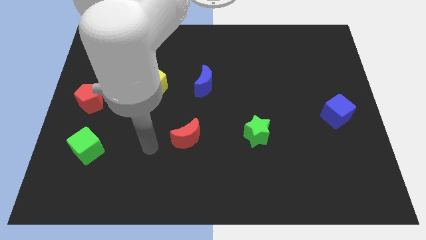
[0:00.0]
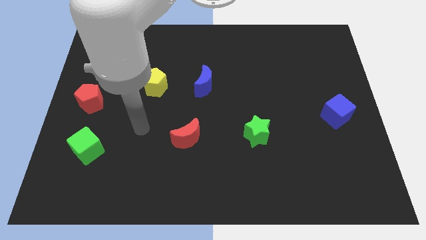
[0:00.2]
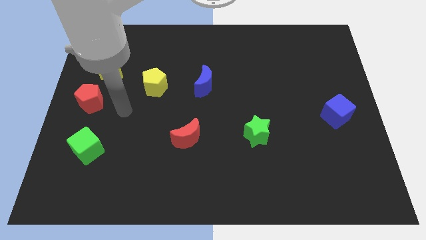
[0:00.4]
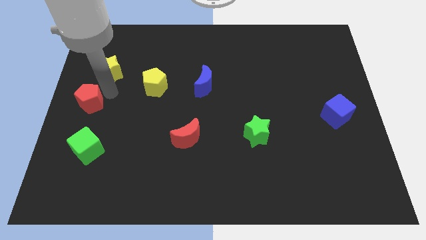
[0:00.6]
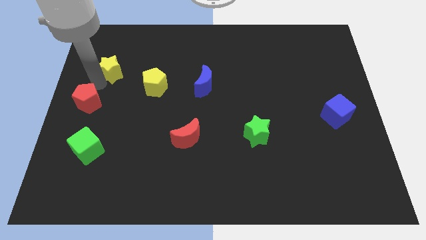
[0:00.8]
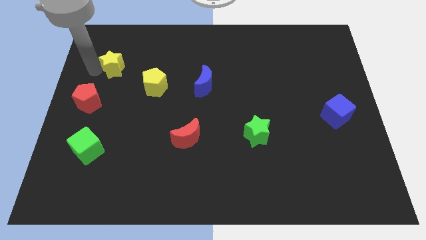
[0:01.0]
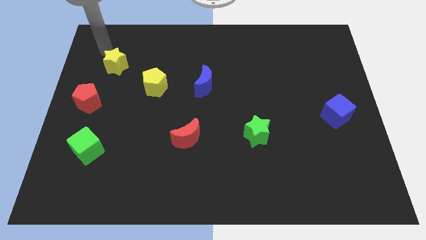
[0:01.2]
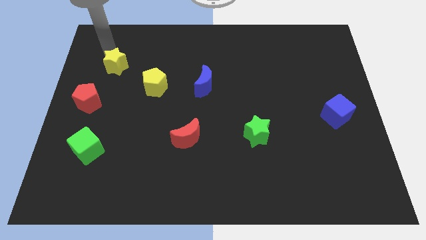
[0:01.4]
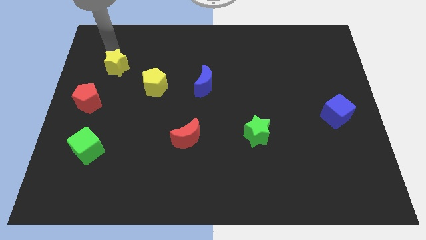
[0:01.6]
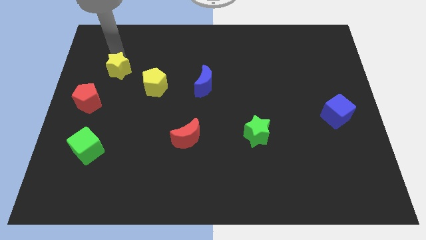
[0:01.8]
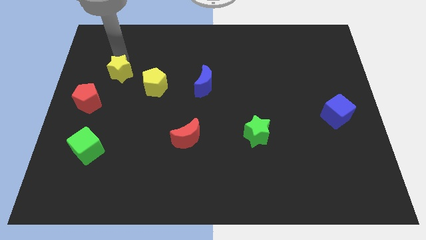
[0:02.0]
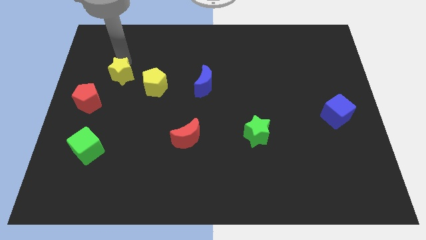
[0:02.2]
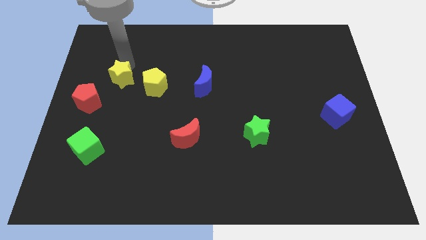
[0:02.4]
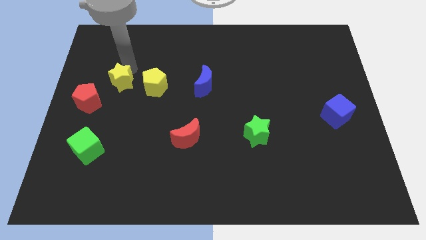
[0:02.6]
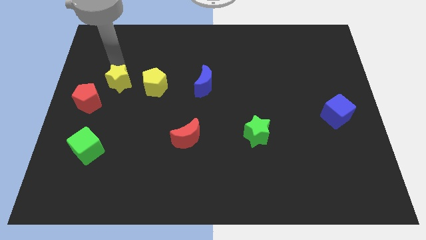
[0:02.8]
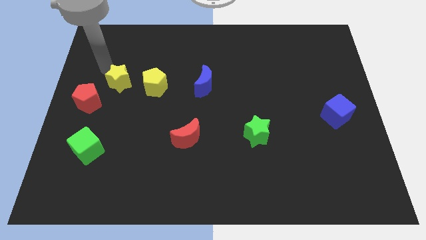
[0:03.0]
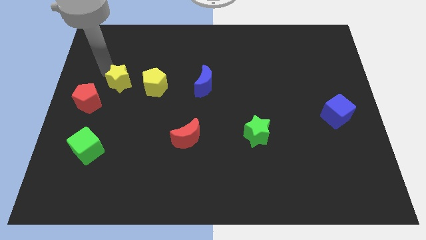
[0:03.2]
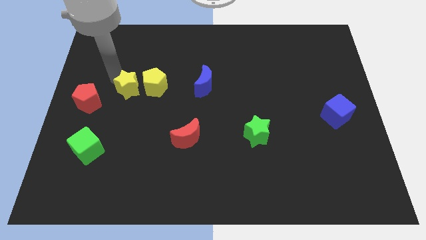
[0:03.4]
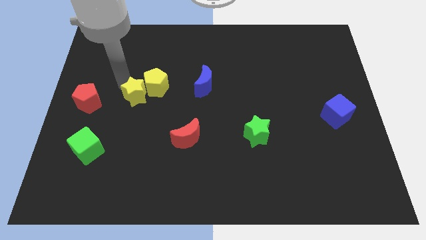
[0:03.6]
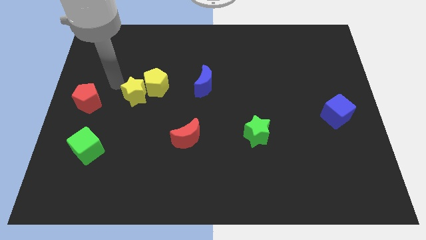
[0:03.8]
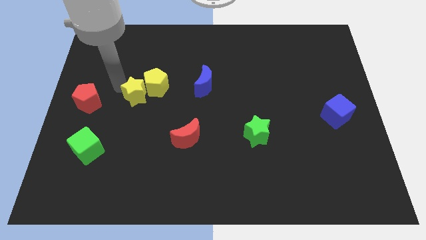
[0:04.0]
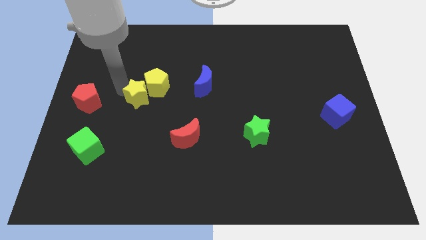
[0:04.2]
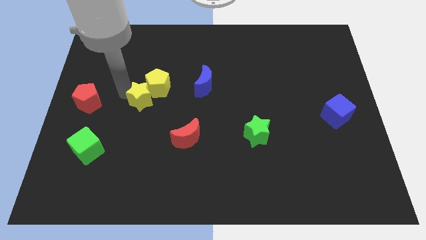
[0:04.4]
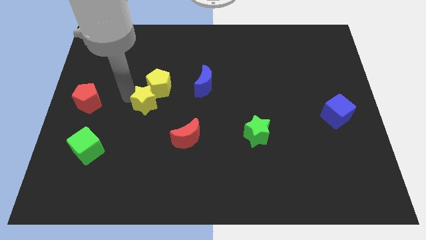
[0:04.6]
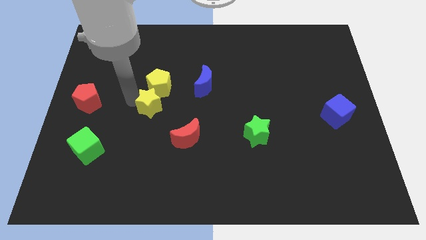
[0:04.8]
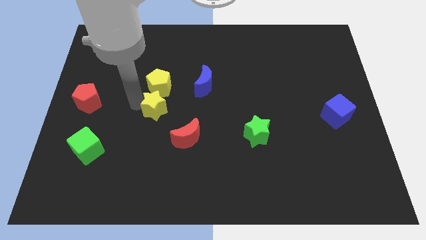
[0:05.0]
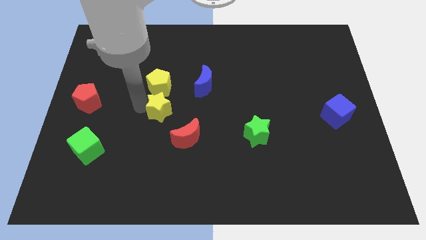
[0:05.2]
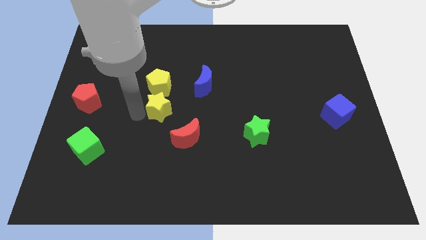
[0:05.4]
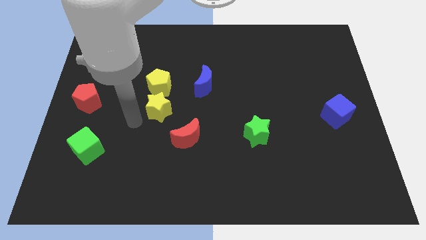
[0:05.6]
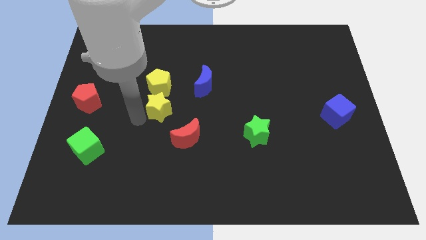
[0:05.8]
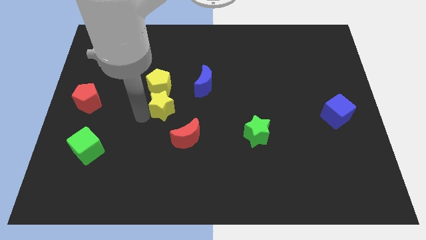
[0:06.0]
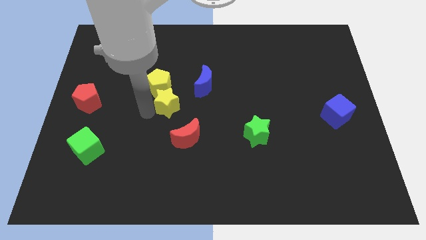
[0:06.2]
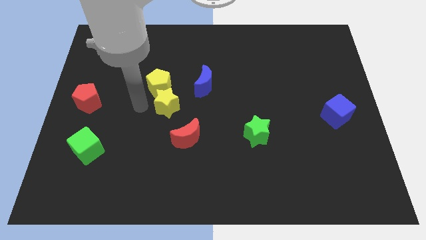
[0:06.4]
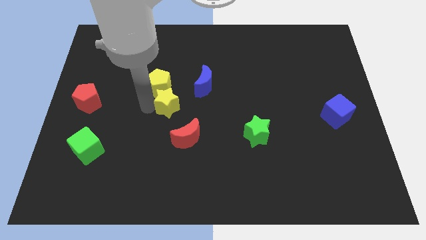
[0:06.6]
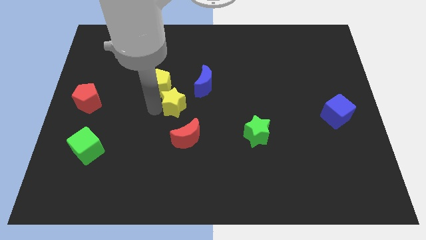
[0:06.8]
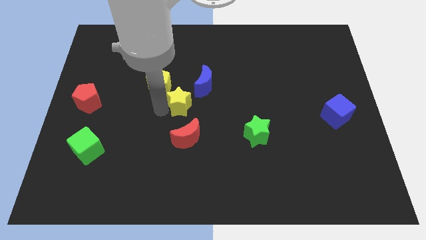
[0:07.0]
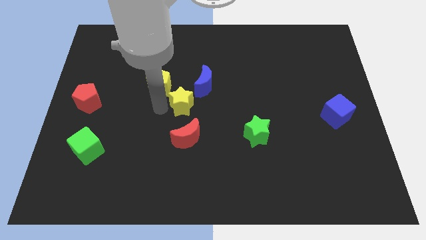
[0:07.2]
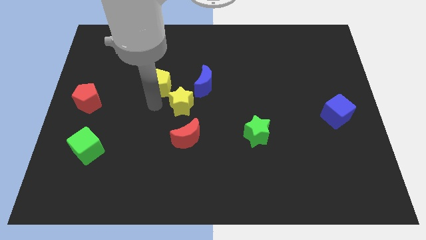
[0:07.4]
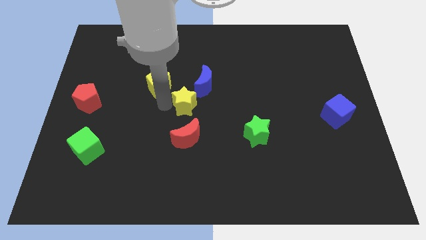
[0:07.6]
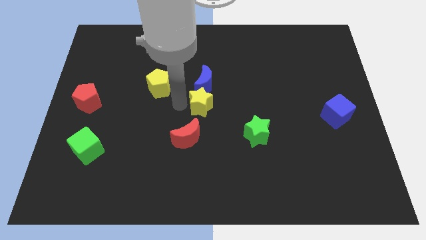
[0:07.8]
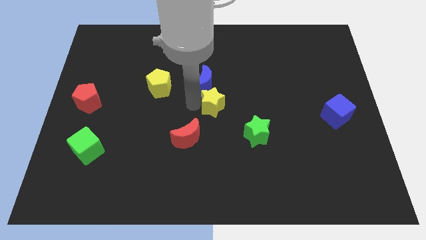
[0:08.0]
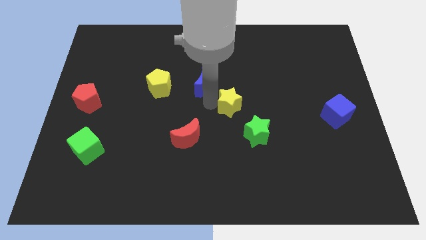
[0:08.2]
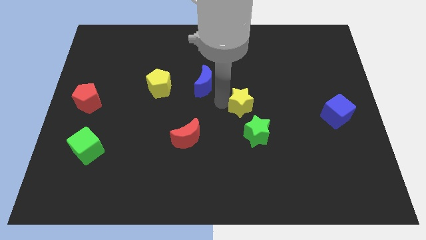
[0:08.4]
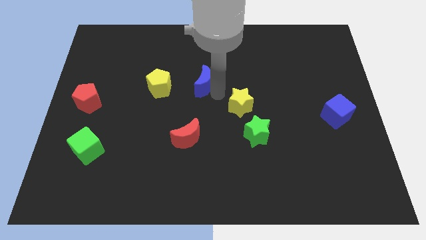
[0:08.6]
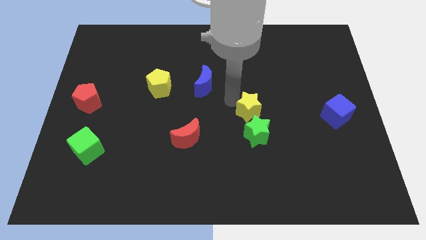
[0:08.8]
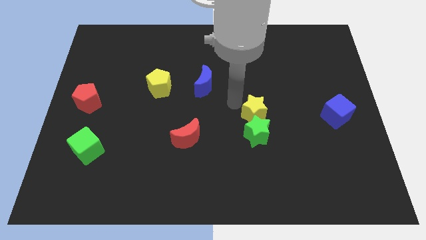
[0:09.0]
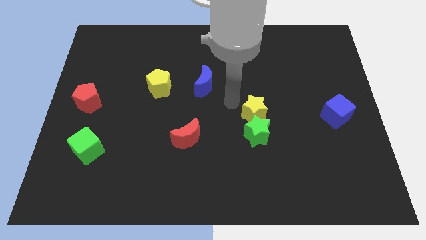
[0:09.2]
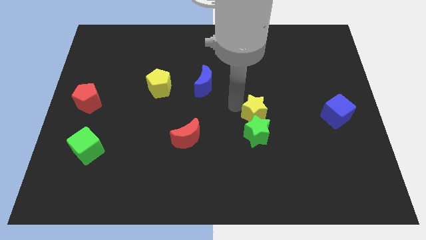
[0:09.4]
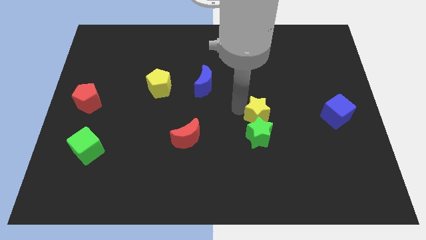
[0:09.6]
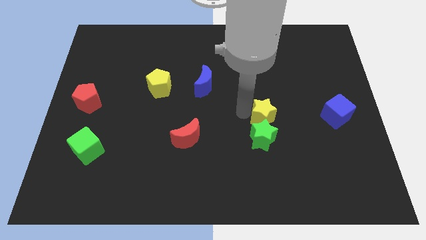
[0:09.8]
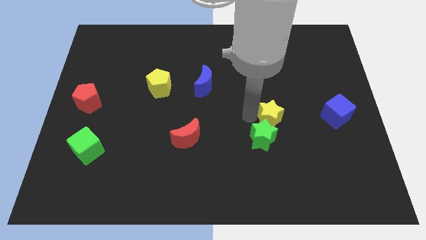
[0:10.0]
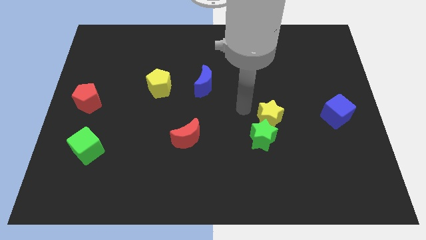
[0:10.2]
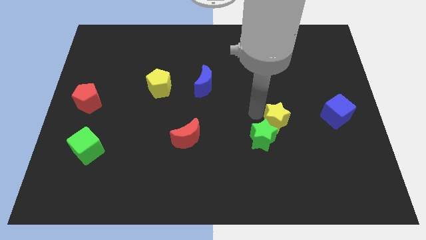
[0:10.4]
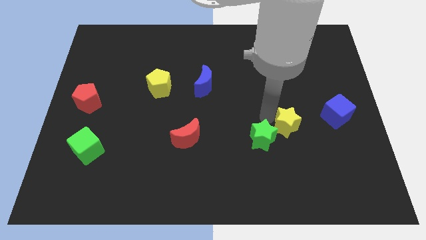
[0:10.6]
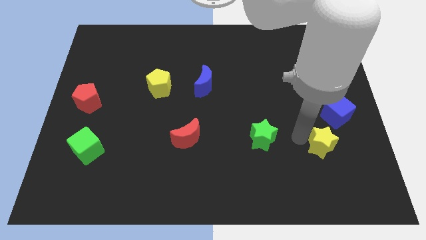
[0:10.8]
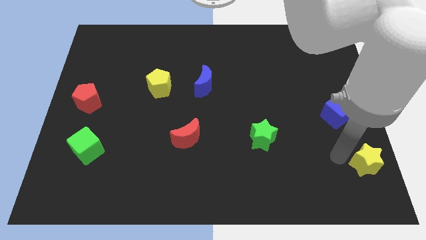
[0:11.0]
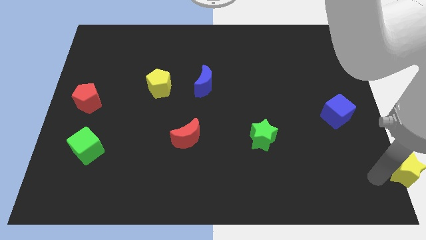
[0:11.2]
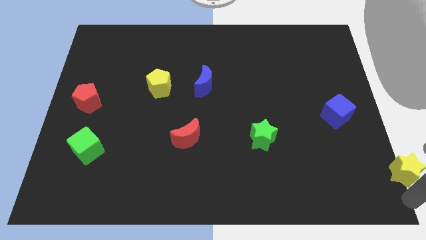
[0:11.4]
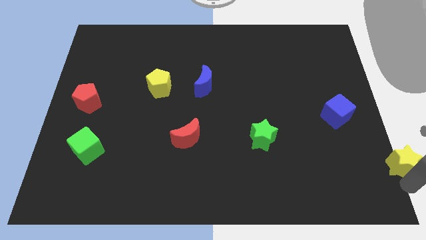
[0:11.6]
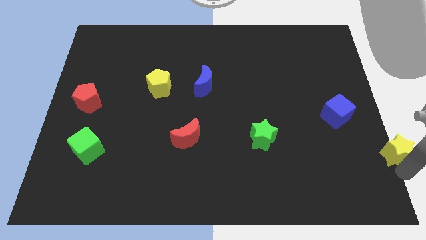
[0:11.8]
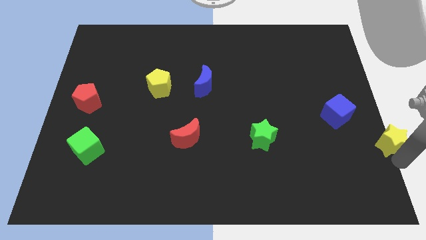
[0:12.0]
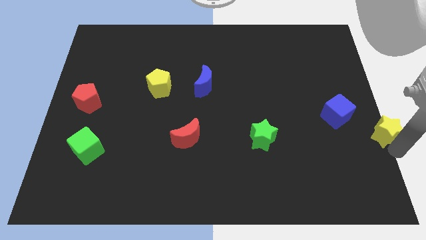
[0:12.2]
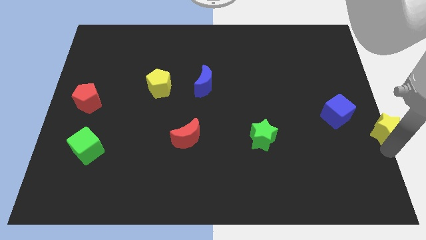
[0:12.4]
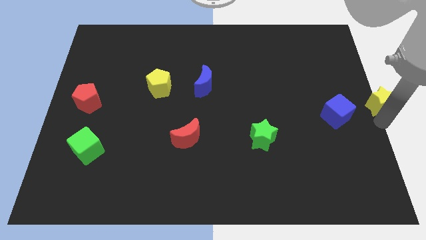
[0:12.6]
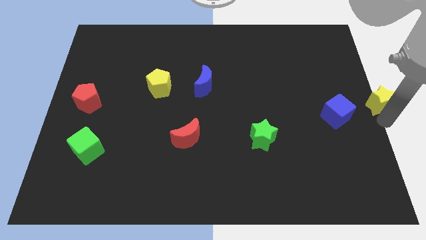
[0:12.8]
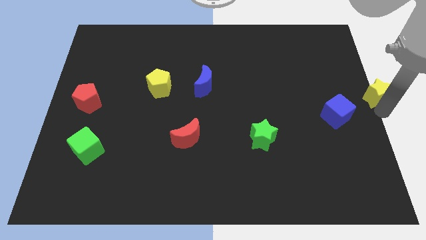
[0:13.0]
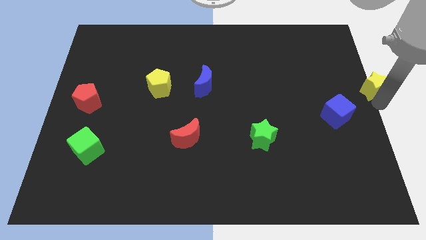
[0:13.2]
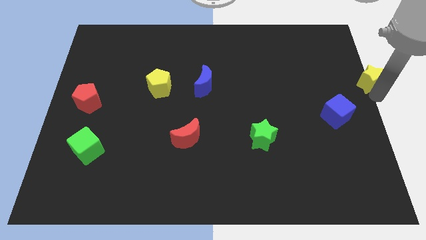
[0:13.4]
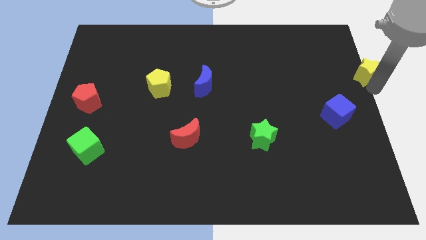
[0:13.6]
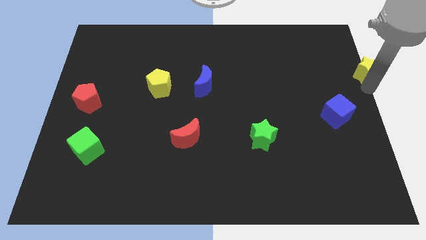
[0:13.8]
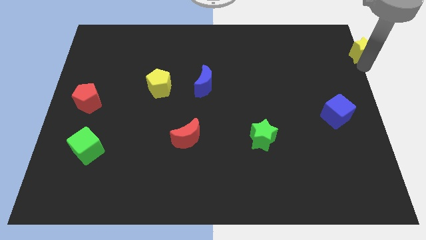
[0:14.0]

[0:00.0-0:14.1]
put the yellow star to the top right
